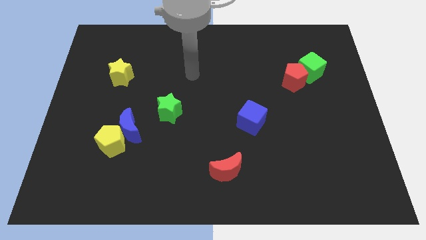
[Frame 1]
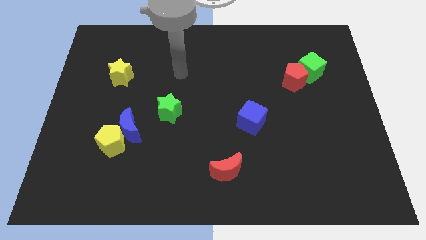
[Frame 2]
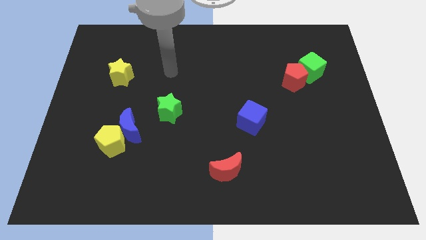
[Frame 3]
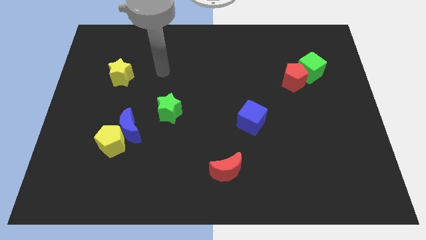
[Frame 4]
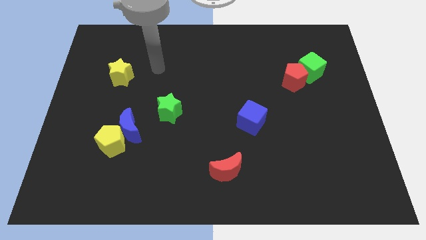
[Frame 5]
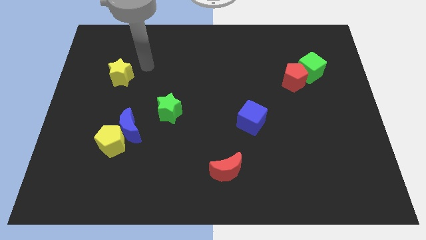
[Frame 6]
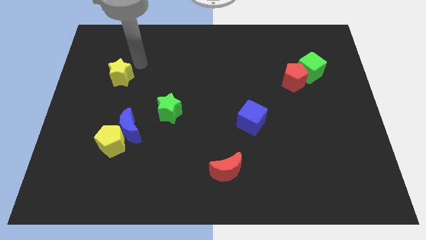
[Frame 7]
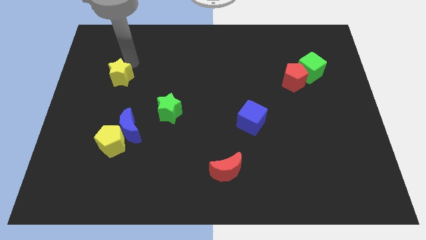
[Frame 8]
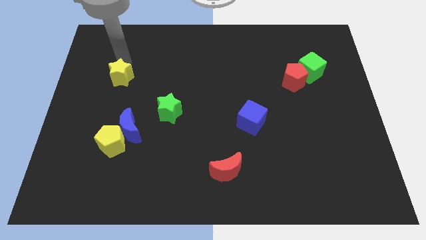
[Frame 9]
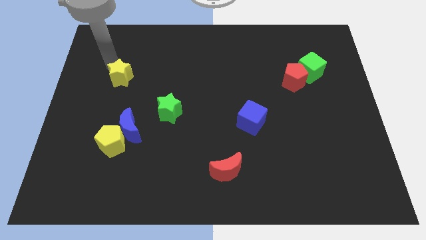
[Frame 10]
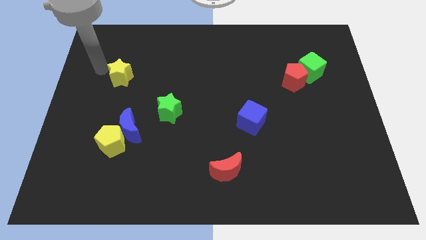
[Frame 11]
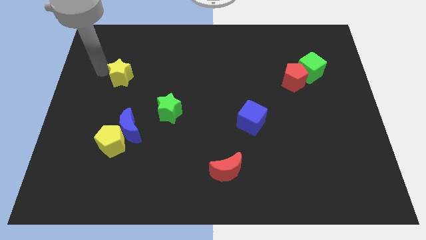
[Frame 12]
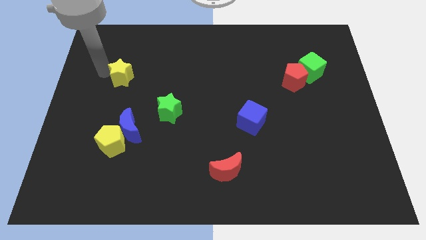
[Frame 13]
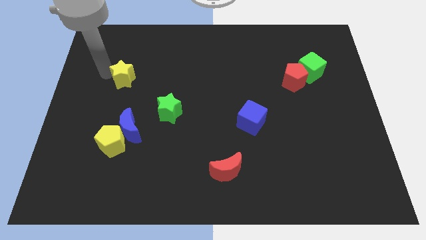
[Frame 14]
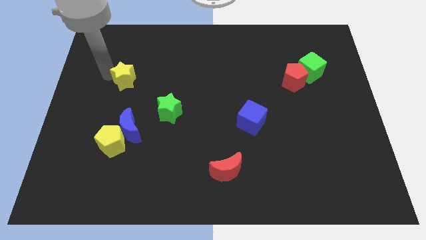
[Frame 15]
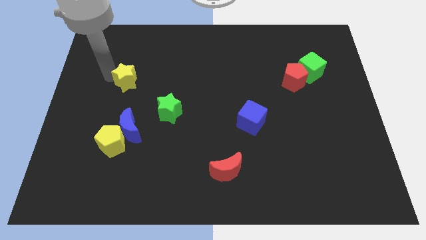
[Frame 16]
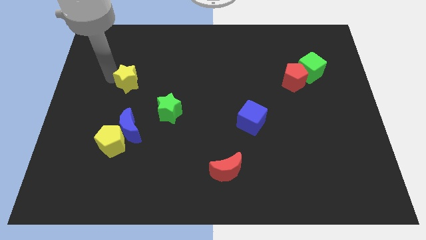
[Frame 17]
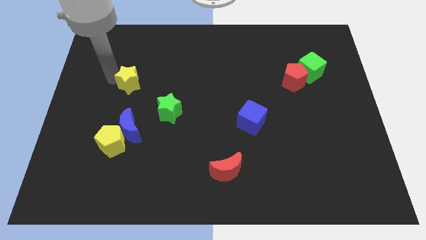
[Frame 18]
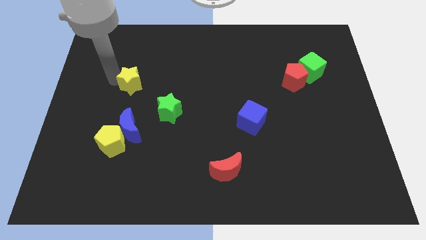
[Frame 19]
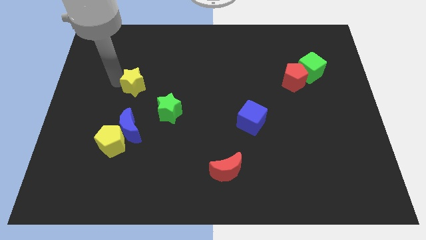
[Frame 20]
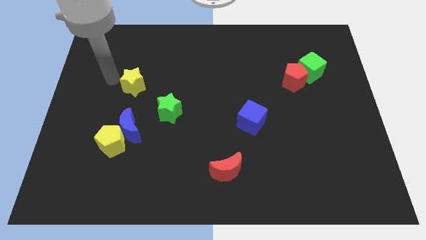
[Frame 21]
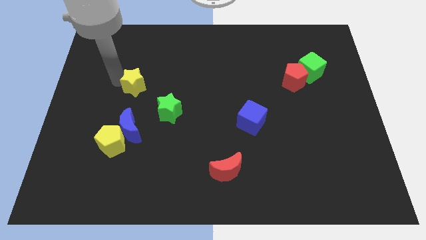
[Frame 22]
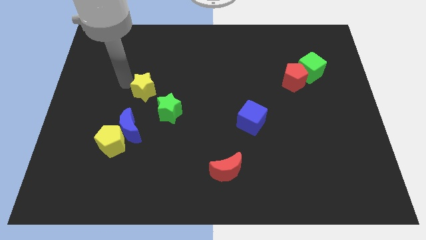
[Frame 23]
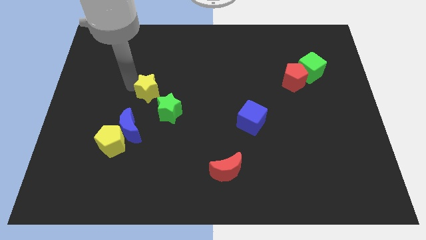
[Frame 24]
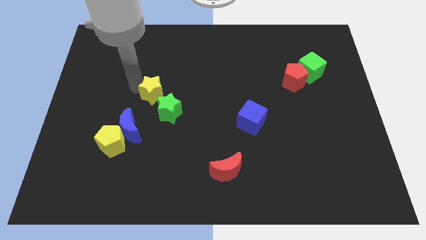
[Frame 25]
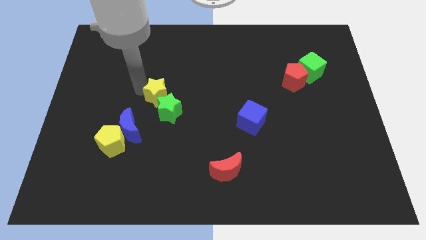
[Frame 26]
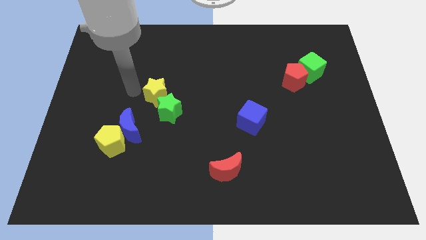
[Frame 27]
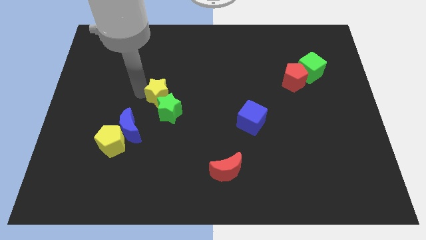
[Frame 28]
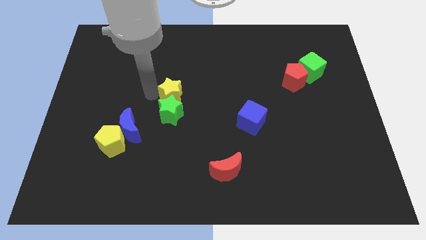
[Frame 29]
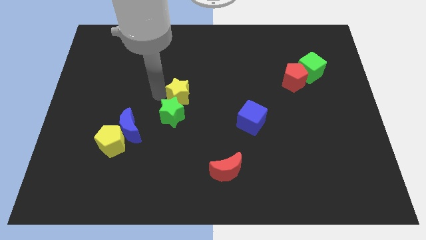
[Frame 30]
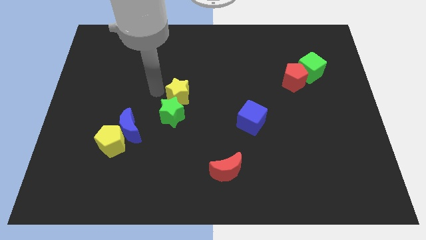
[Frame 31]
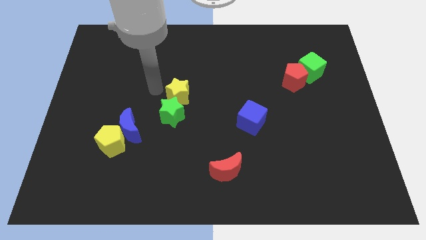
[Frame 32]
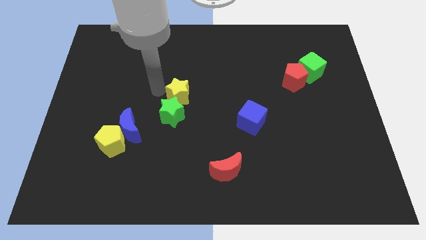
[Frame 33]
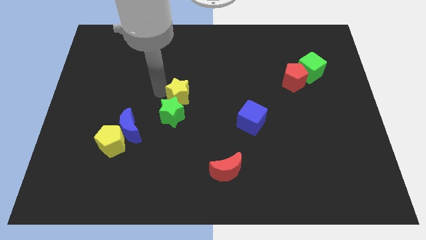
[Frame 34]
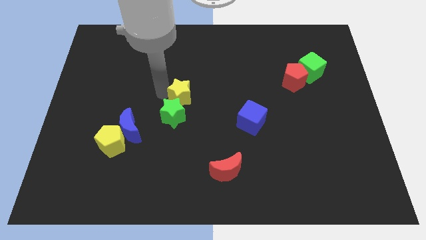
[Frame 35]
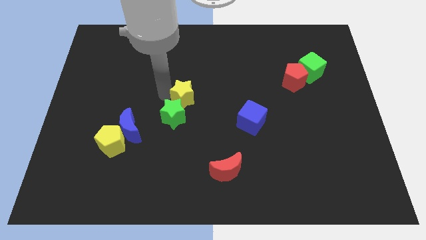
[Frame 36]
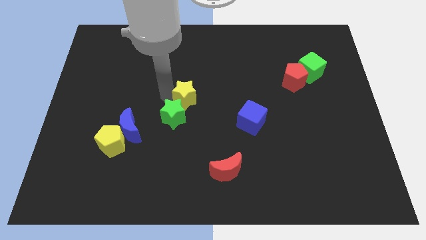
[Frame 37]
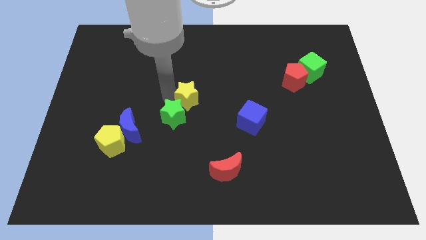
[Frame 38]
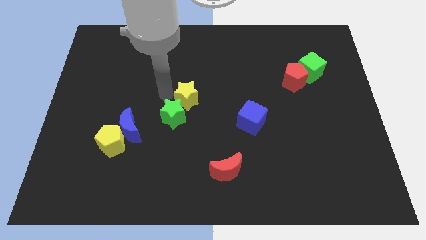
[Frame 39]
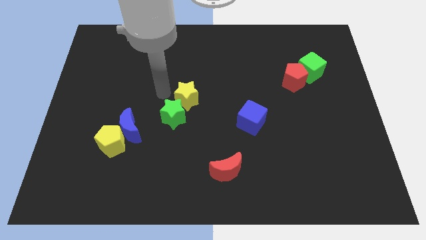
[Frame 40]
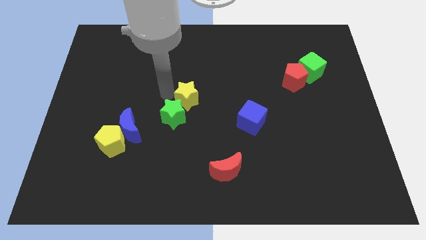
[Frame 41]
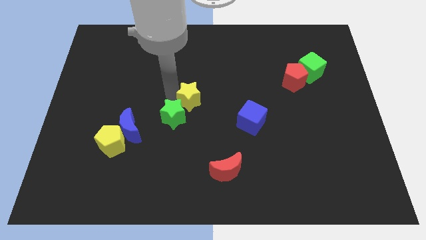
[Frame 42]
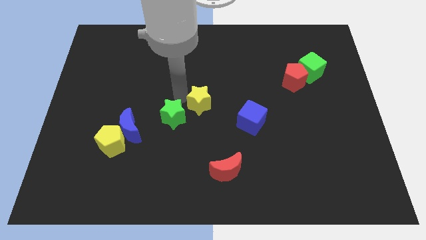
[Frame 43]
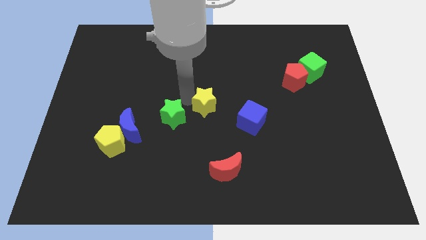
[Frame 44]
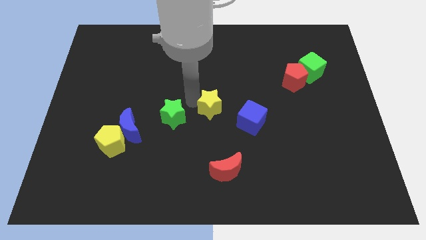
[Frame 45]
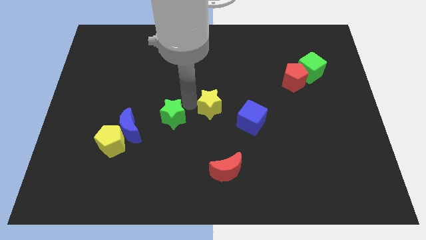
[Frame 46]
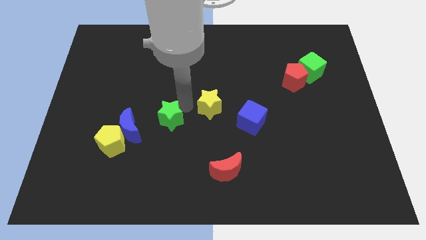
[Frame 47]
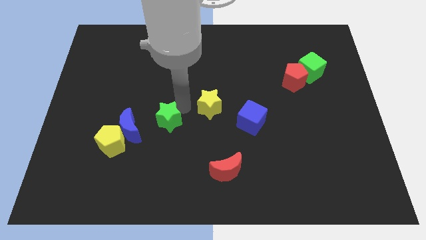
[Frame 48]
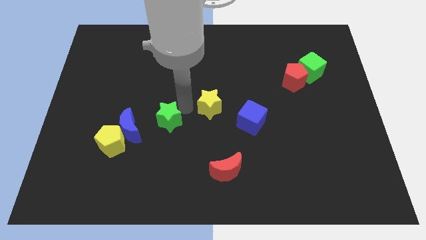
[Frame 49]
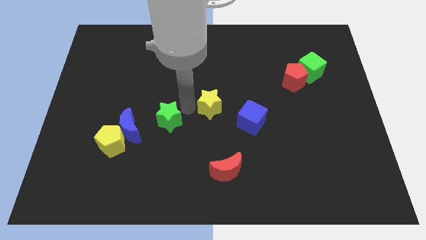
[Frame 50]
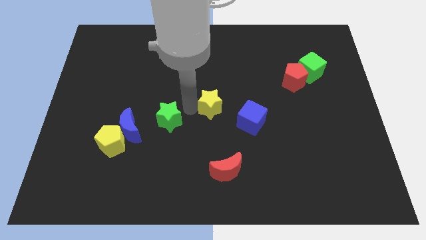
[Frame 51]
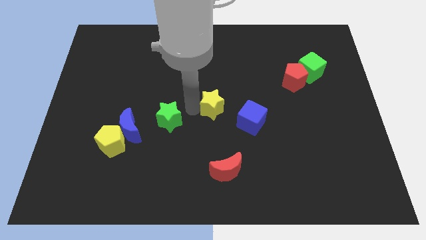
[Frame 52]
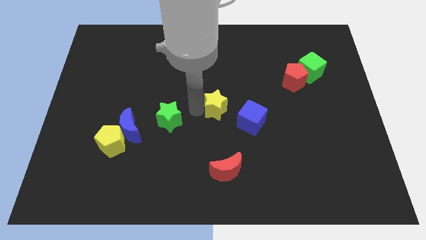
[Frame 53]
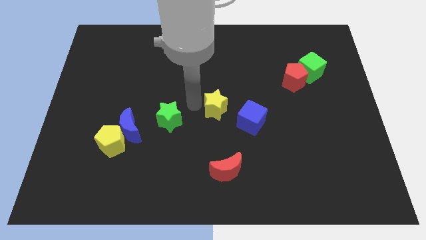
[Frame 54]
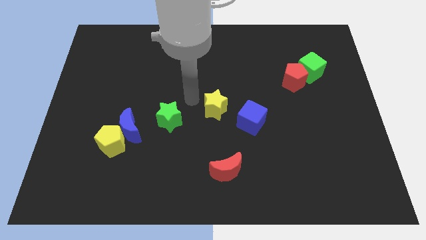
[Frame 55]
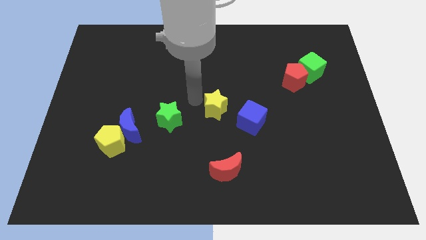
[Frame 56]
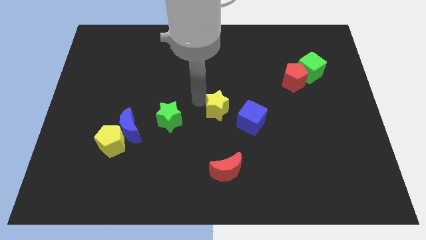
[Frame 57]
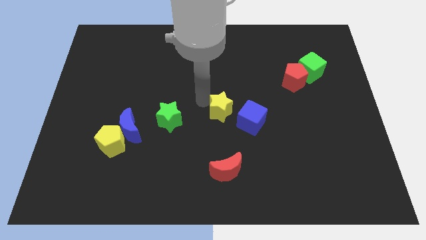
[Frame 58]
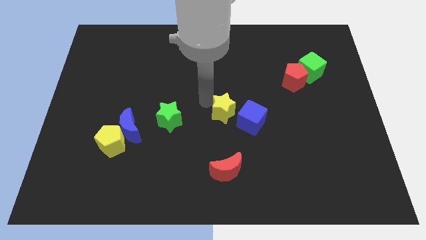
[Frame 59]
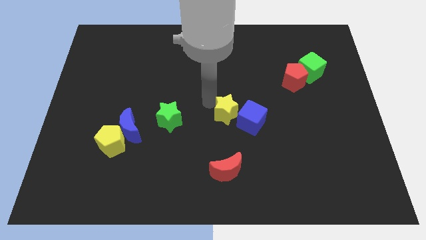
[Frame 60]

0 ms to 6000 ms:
move the yellow star to the blue cube

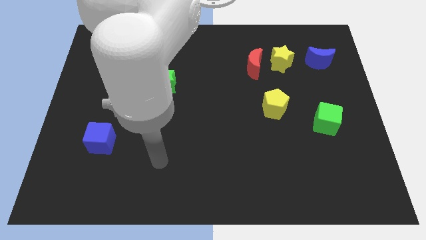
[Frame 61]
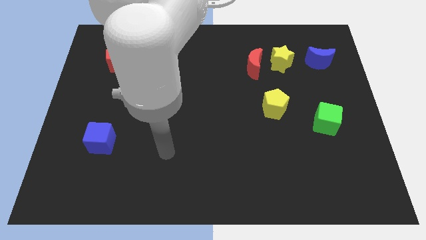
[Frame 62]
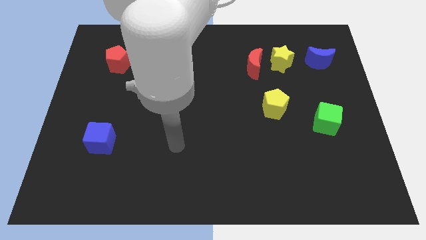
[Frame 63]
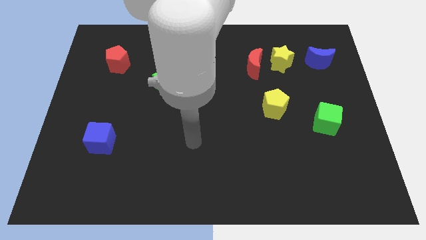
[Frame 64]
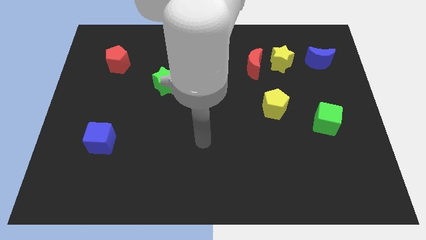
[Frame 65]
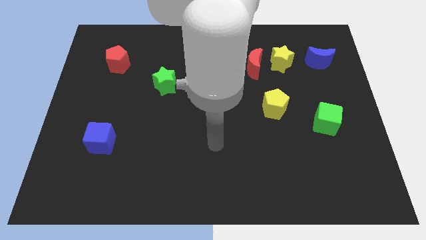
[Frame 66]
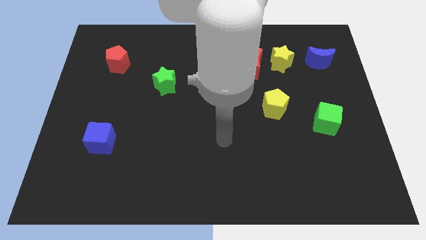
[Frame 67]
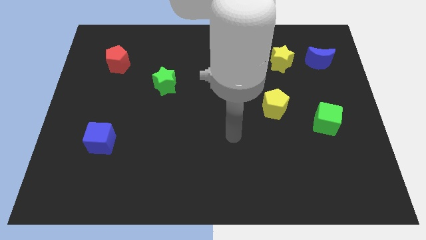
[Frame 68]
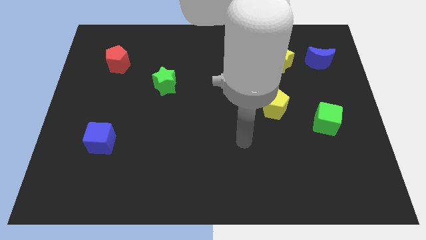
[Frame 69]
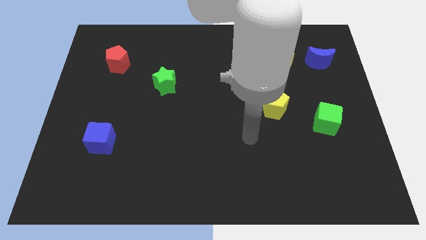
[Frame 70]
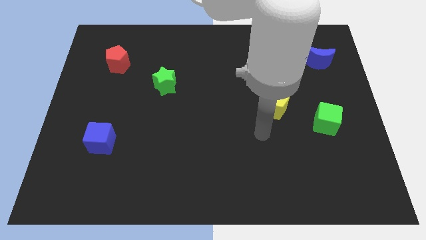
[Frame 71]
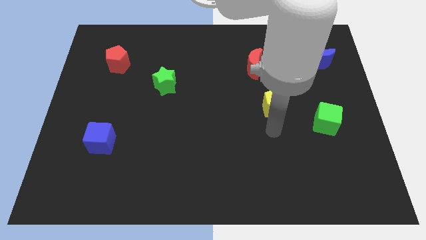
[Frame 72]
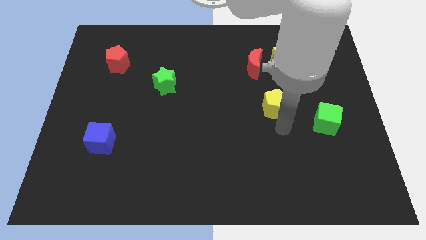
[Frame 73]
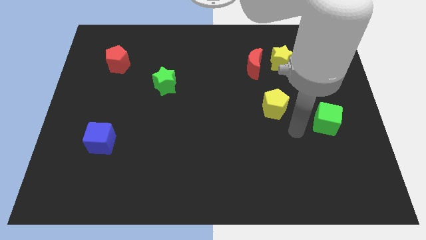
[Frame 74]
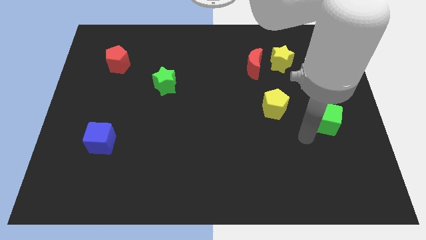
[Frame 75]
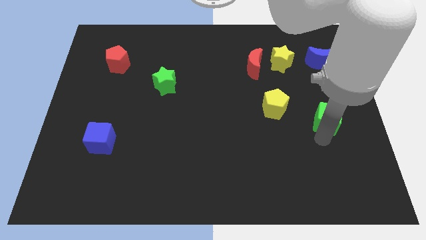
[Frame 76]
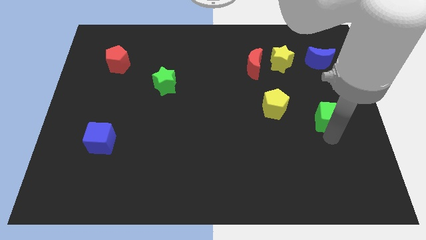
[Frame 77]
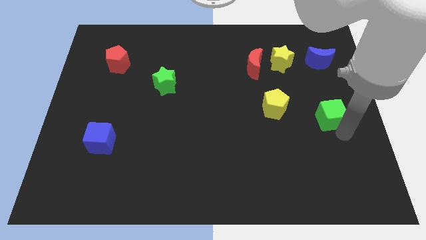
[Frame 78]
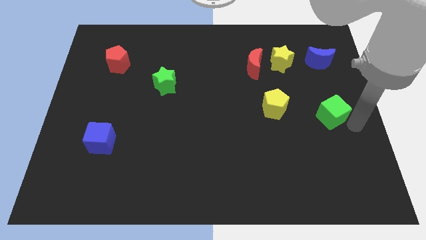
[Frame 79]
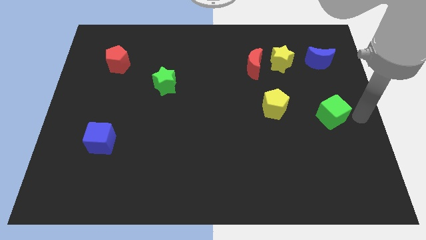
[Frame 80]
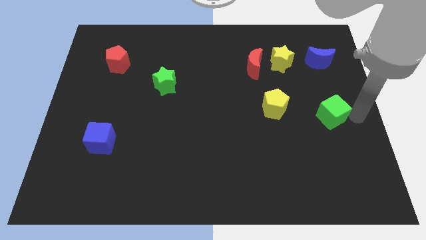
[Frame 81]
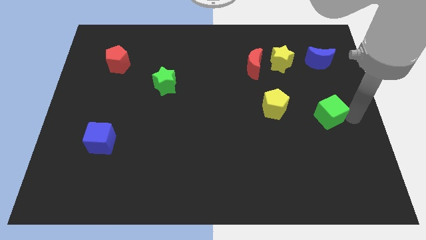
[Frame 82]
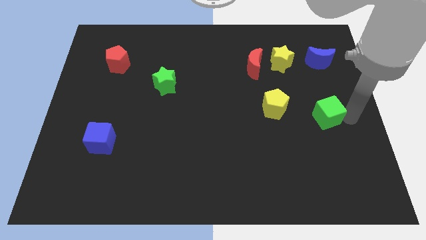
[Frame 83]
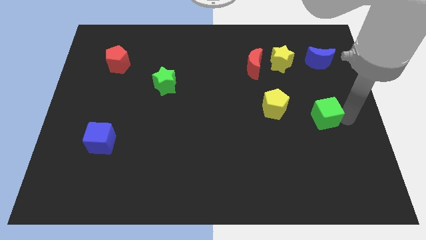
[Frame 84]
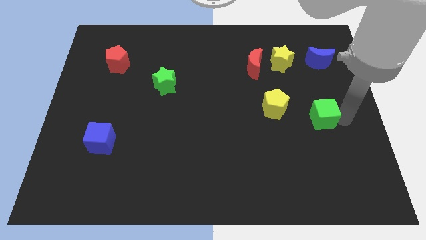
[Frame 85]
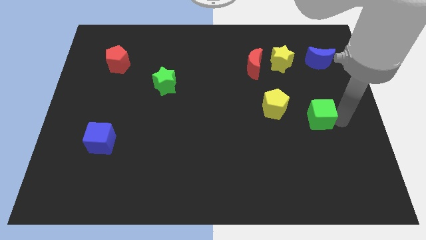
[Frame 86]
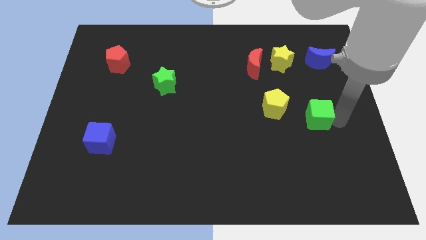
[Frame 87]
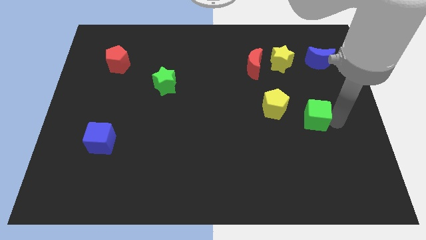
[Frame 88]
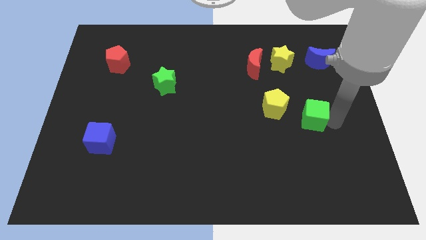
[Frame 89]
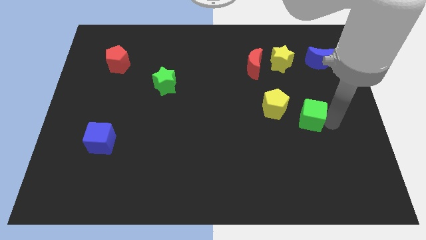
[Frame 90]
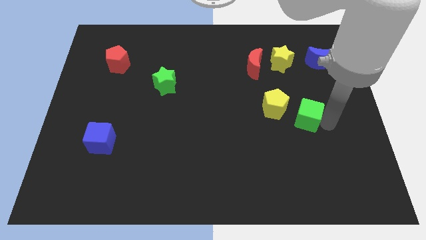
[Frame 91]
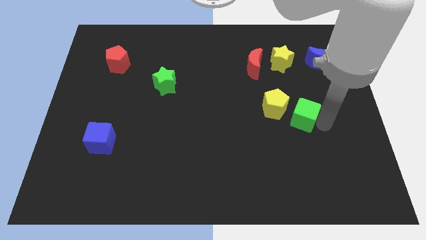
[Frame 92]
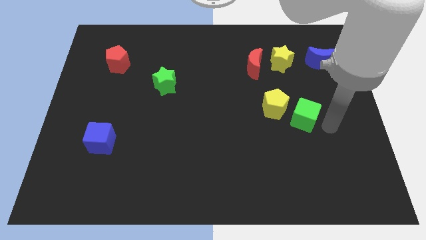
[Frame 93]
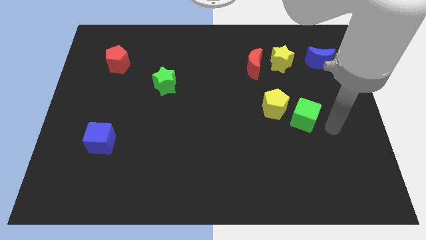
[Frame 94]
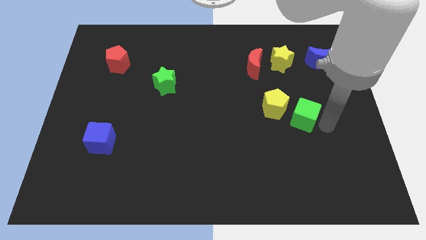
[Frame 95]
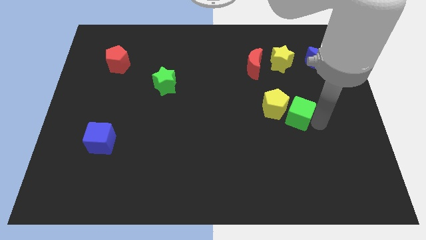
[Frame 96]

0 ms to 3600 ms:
move the green cube next to the yellow pentagon
